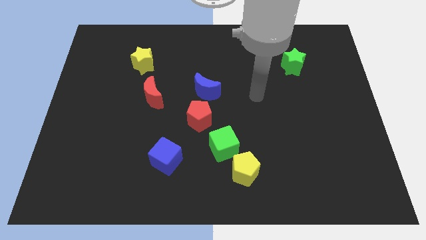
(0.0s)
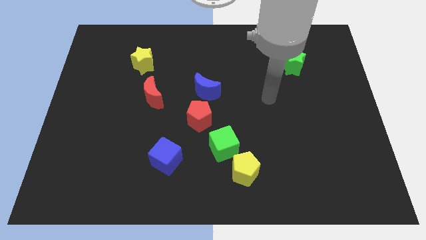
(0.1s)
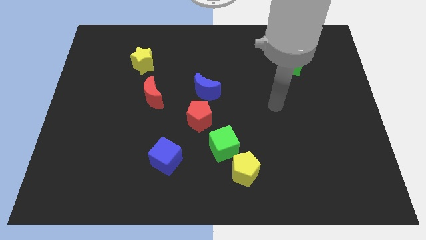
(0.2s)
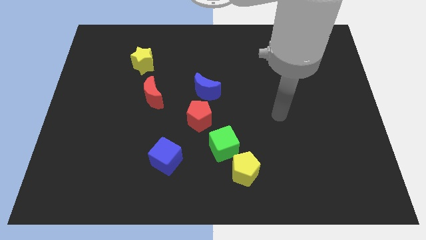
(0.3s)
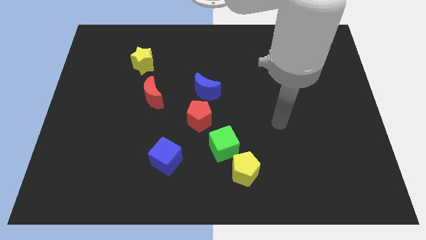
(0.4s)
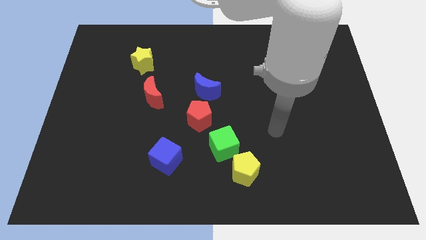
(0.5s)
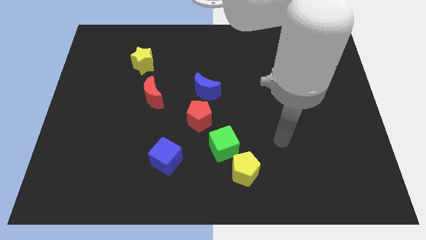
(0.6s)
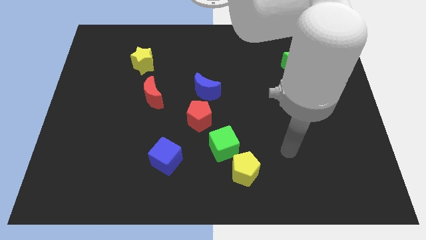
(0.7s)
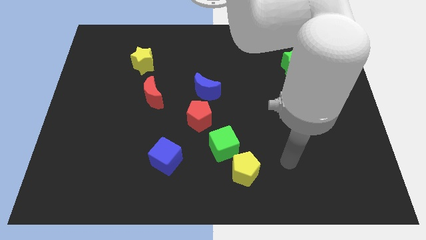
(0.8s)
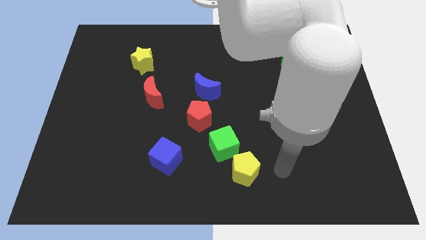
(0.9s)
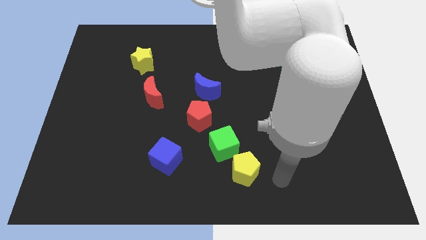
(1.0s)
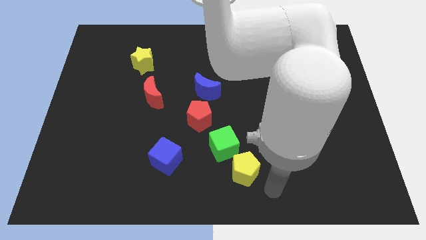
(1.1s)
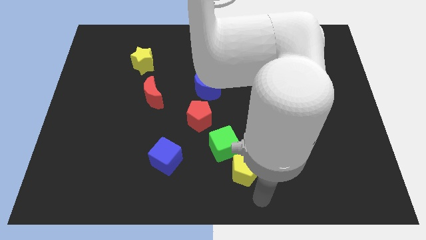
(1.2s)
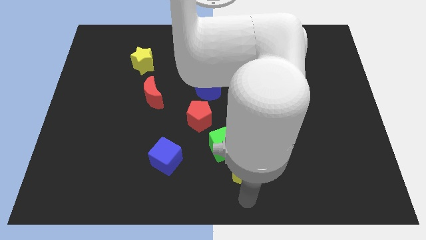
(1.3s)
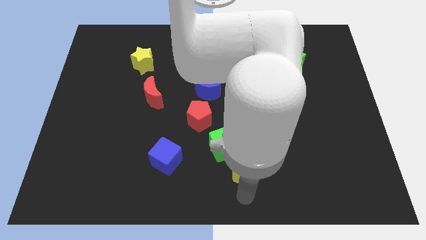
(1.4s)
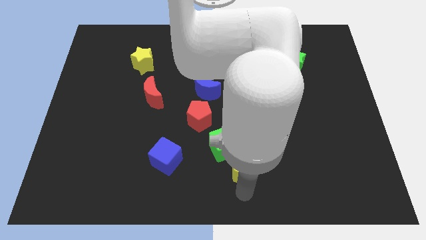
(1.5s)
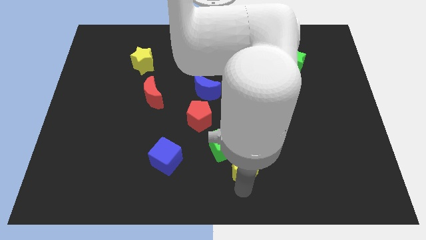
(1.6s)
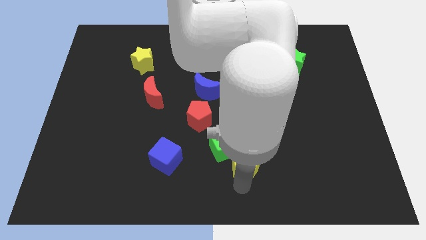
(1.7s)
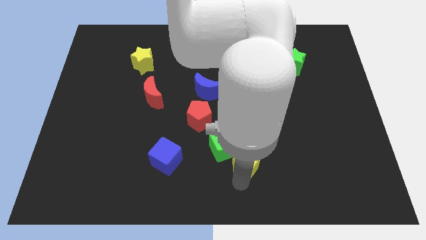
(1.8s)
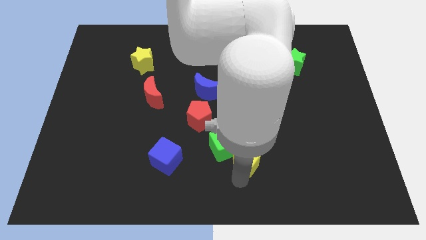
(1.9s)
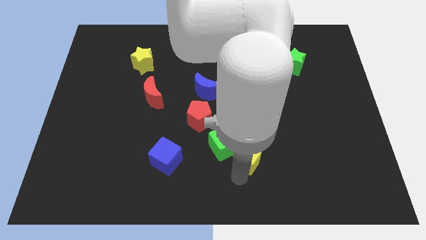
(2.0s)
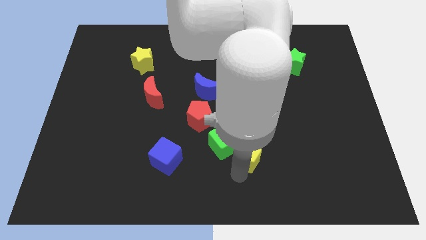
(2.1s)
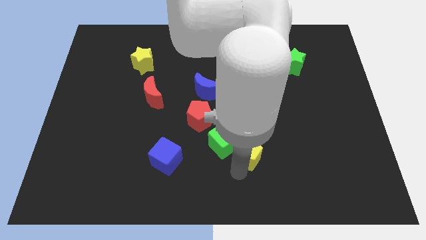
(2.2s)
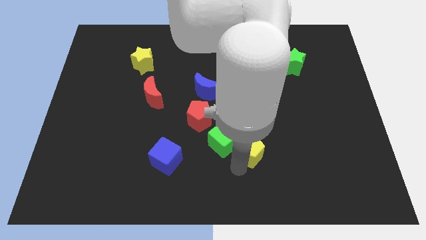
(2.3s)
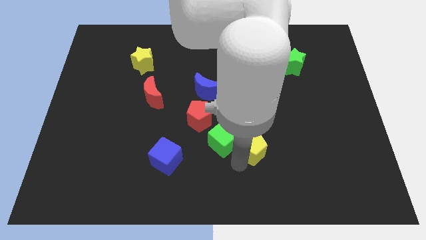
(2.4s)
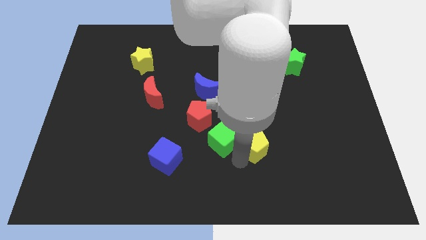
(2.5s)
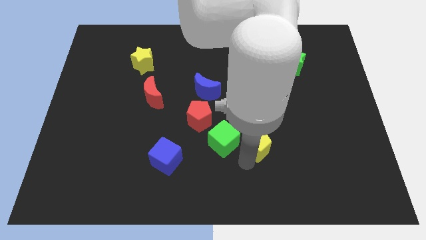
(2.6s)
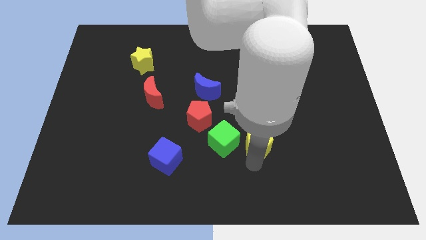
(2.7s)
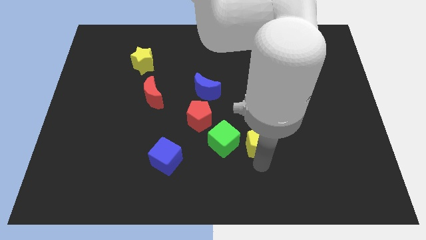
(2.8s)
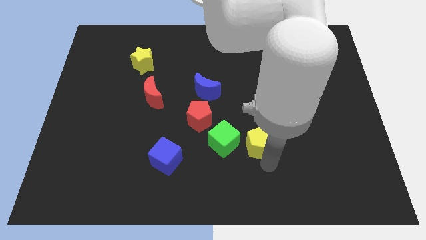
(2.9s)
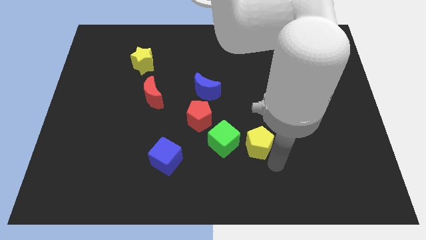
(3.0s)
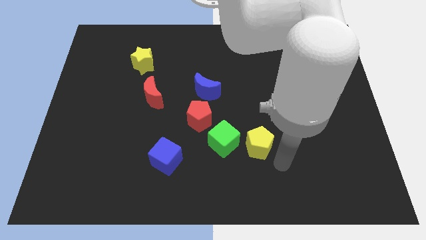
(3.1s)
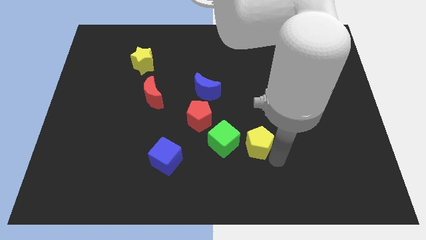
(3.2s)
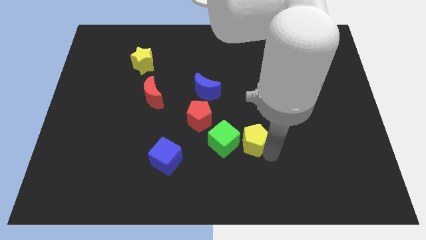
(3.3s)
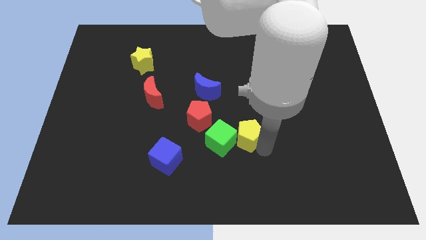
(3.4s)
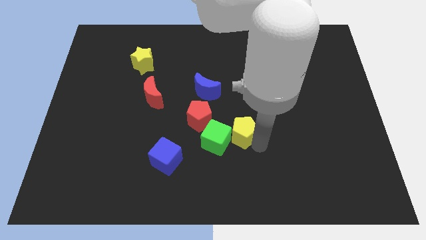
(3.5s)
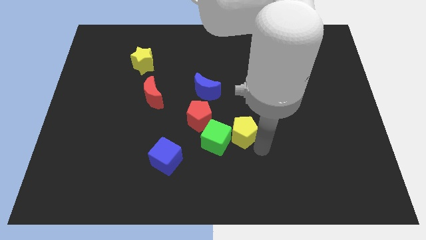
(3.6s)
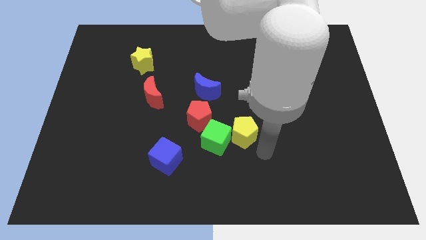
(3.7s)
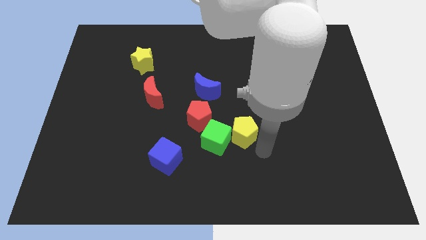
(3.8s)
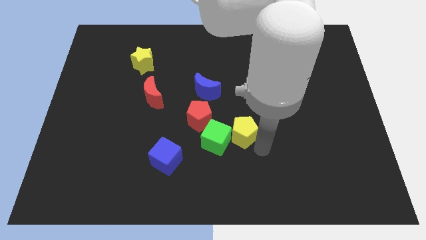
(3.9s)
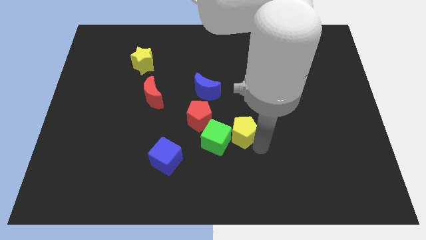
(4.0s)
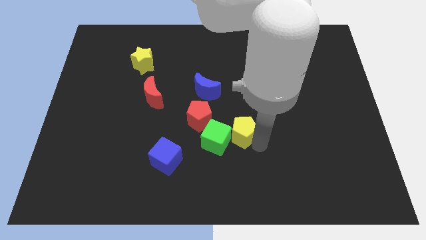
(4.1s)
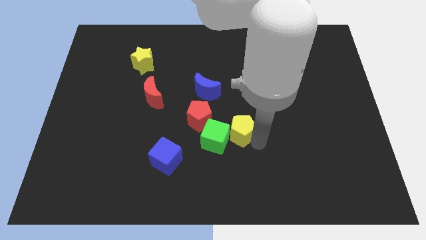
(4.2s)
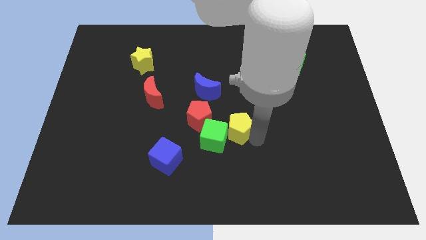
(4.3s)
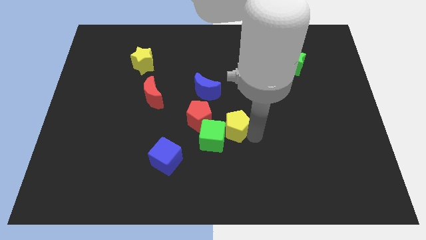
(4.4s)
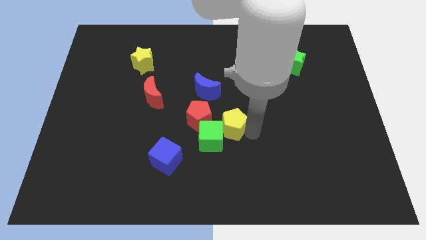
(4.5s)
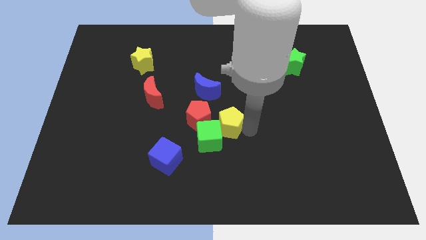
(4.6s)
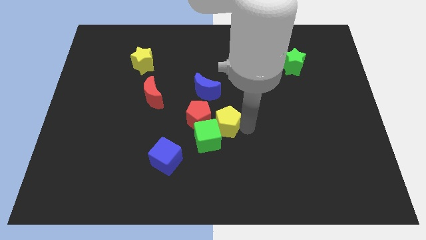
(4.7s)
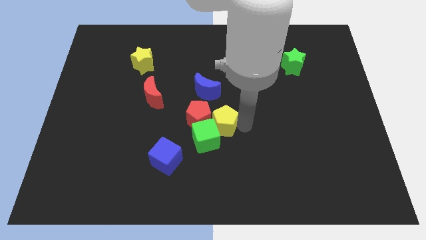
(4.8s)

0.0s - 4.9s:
slide the yellow pentagon close to the red pentagon

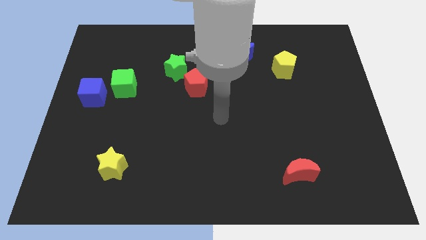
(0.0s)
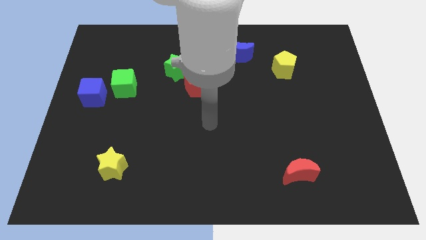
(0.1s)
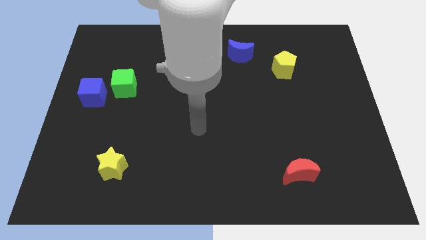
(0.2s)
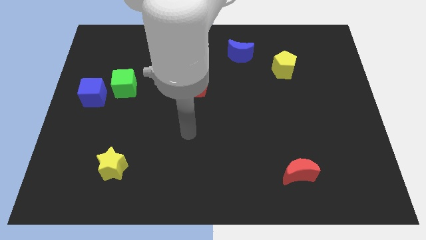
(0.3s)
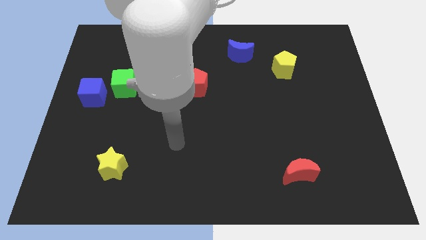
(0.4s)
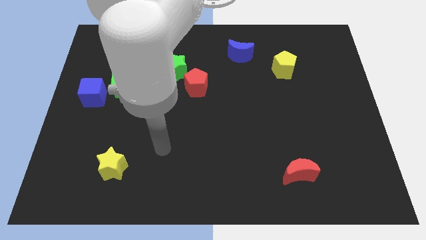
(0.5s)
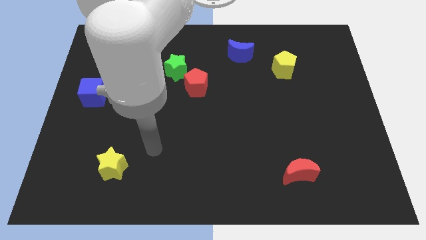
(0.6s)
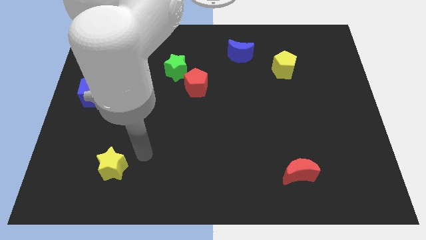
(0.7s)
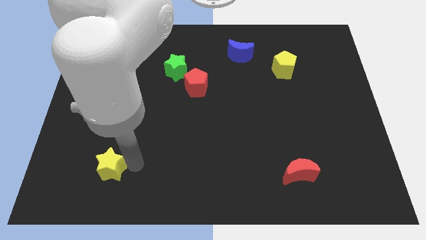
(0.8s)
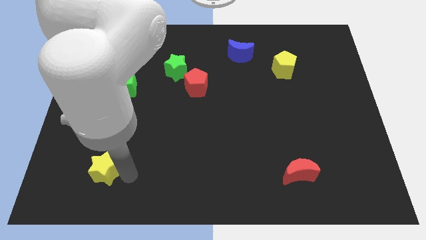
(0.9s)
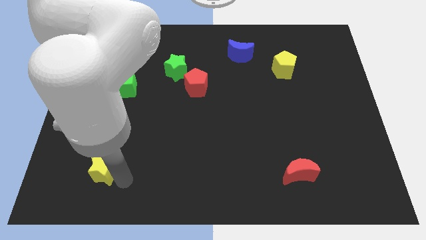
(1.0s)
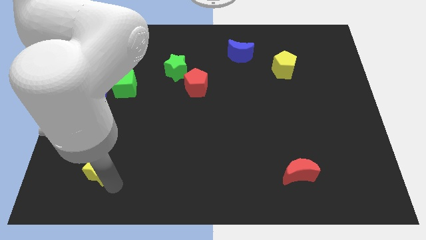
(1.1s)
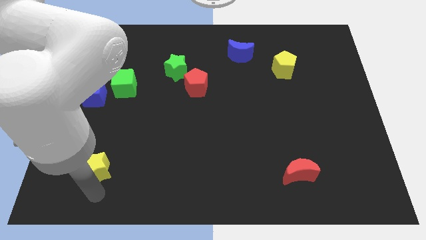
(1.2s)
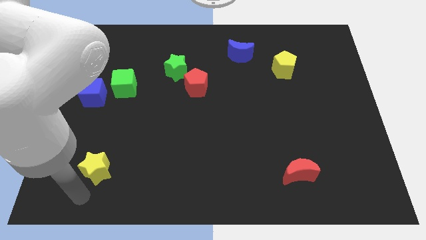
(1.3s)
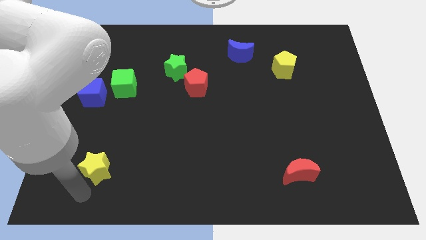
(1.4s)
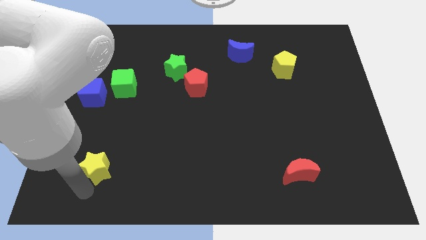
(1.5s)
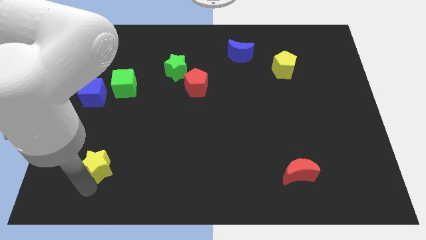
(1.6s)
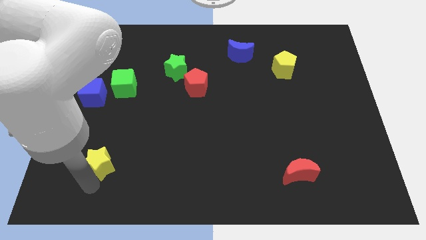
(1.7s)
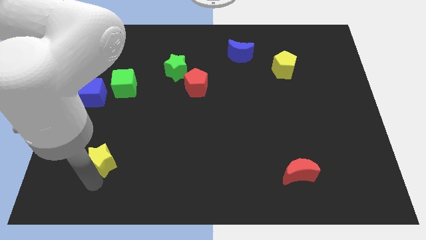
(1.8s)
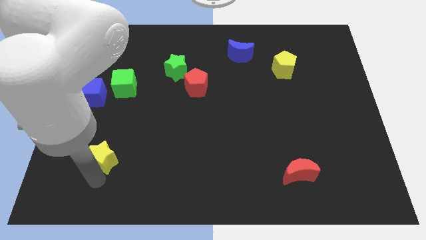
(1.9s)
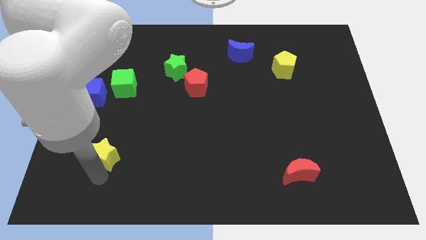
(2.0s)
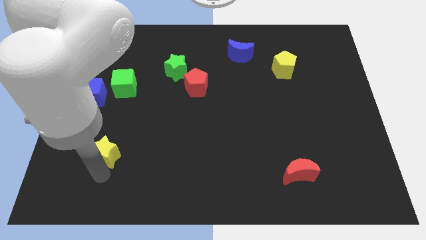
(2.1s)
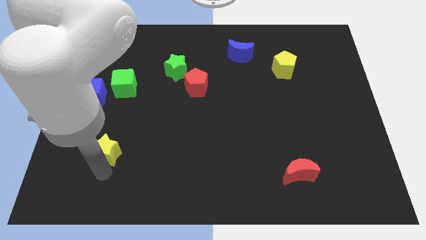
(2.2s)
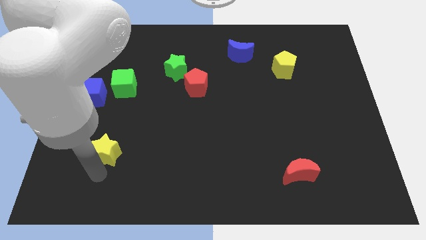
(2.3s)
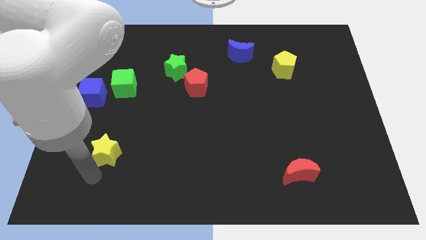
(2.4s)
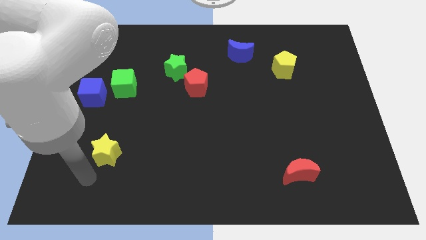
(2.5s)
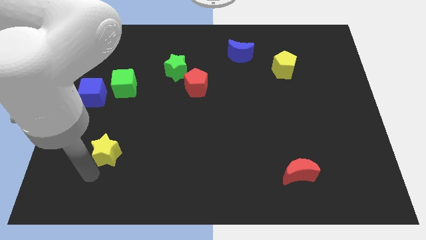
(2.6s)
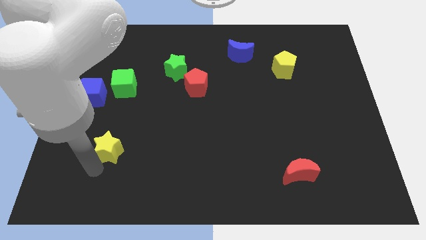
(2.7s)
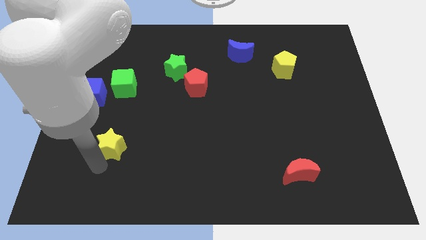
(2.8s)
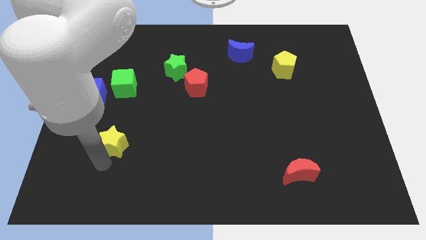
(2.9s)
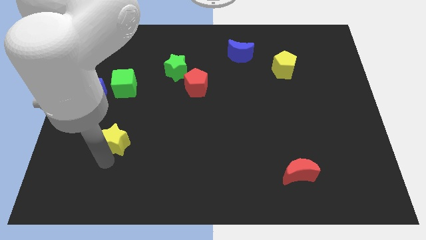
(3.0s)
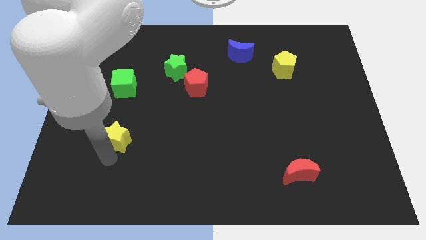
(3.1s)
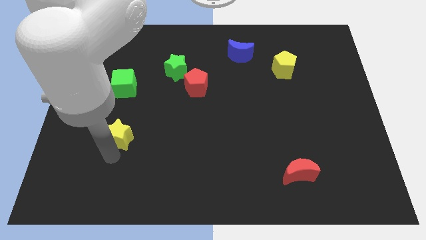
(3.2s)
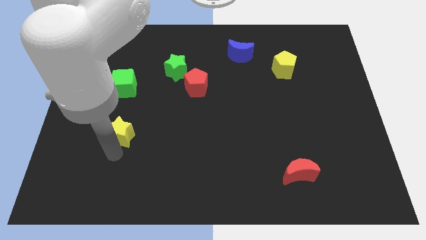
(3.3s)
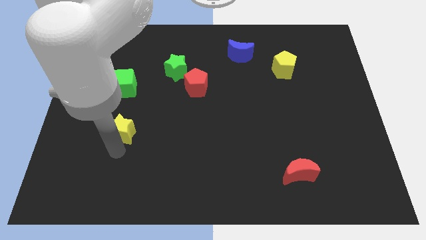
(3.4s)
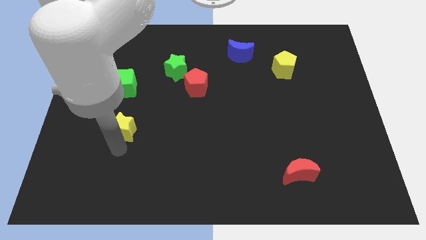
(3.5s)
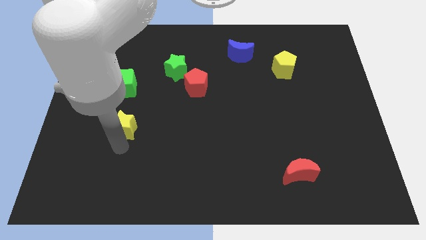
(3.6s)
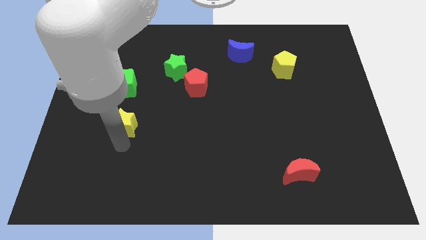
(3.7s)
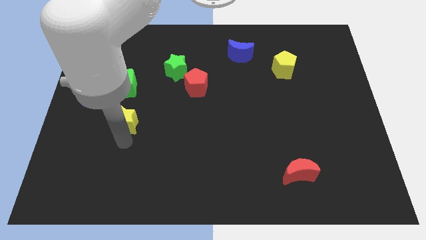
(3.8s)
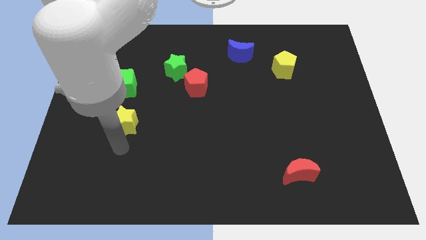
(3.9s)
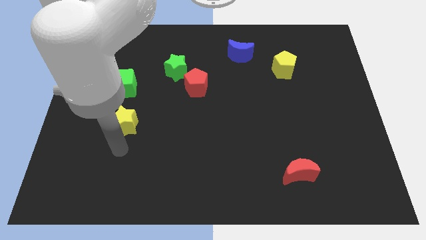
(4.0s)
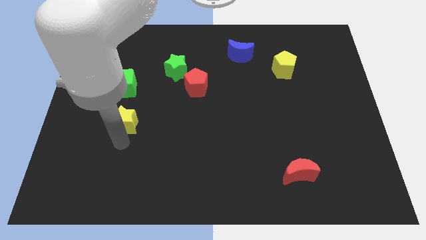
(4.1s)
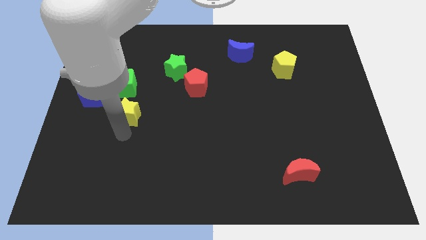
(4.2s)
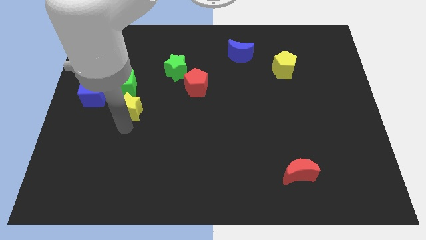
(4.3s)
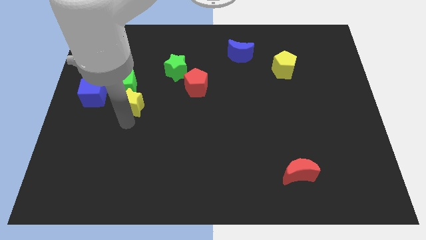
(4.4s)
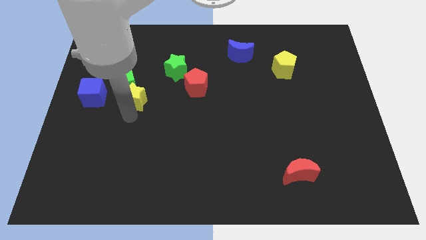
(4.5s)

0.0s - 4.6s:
push the yellow star next to the green cube
